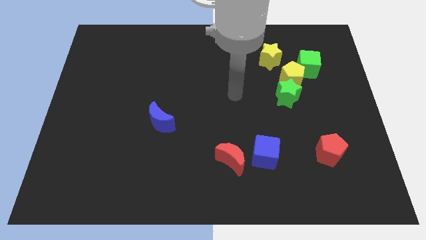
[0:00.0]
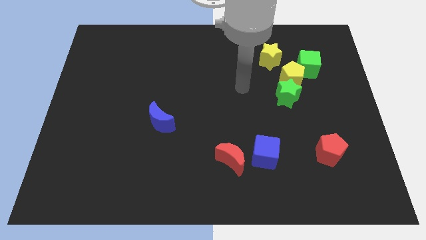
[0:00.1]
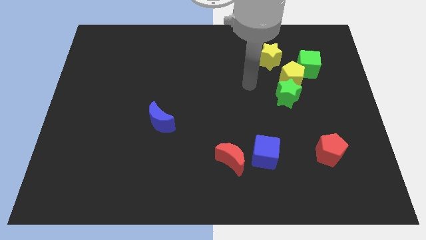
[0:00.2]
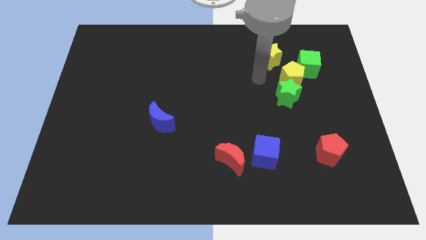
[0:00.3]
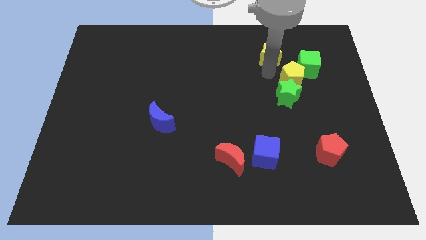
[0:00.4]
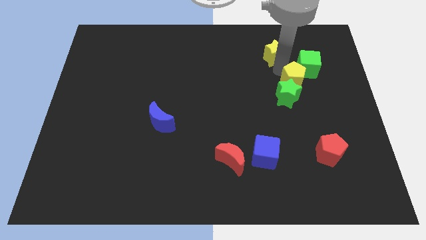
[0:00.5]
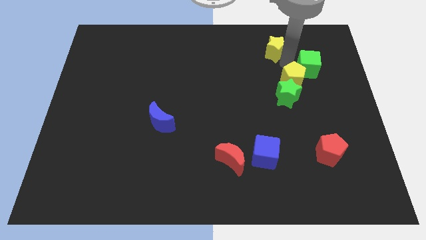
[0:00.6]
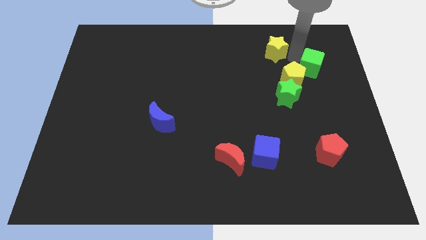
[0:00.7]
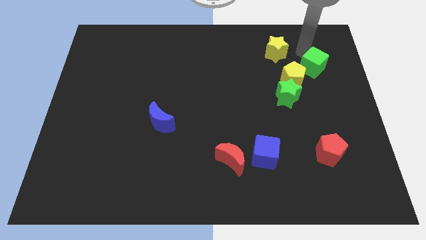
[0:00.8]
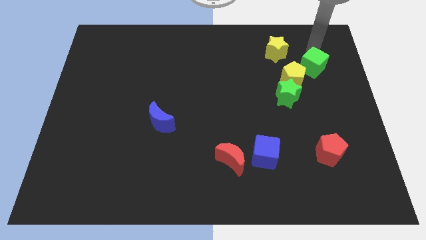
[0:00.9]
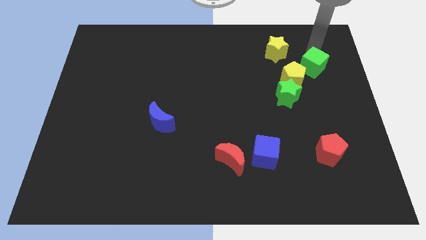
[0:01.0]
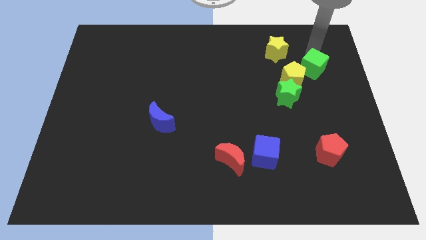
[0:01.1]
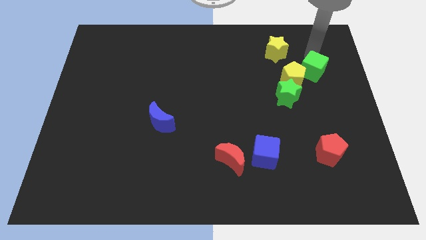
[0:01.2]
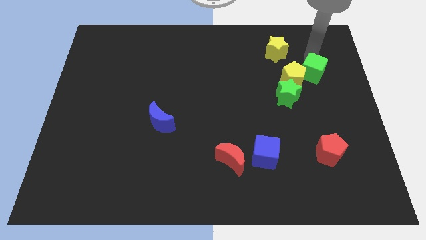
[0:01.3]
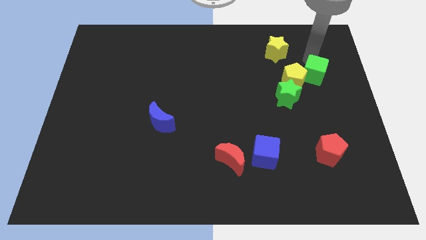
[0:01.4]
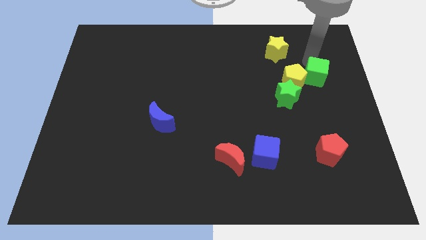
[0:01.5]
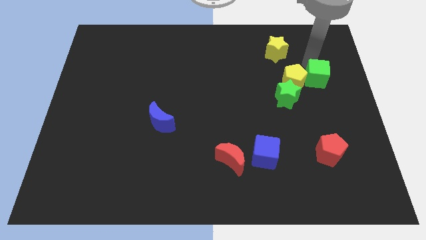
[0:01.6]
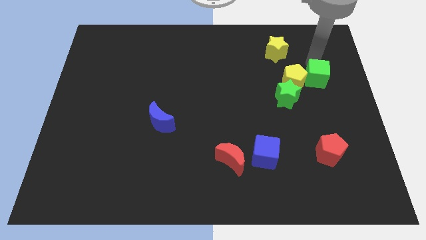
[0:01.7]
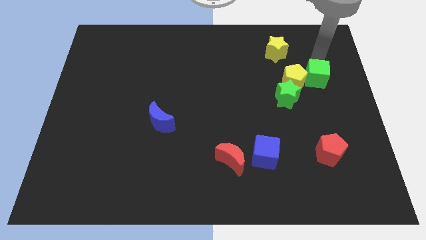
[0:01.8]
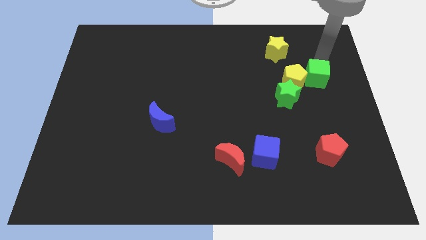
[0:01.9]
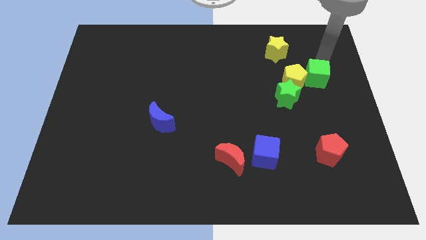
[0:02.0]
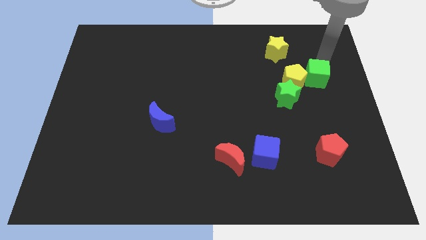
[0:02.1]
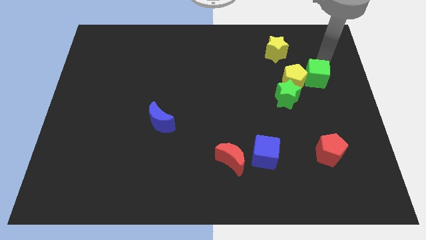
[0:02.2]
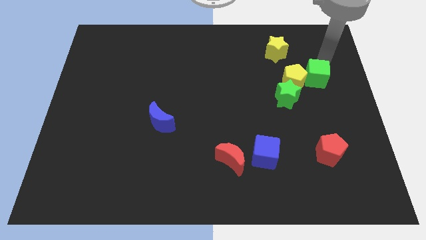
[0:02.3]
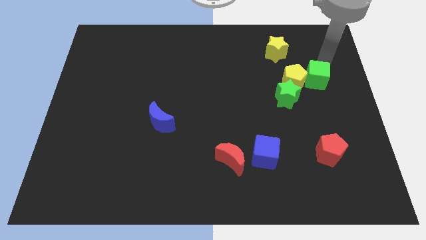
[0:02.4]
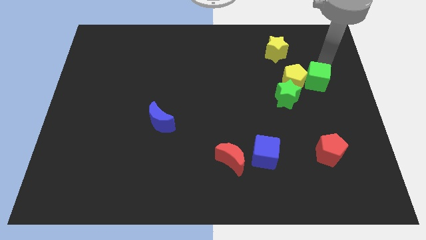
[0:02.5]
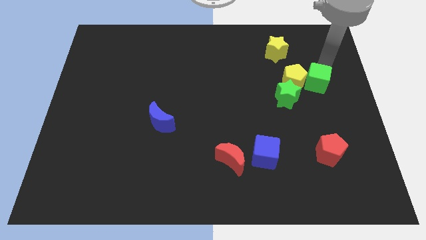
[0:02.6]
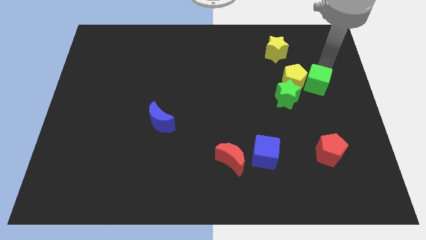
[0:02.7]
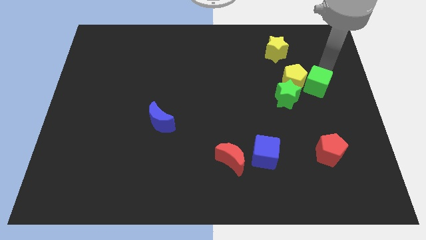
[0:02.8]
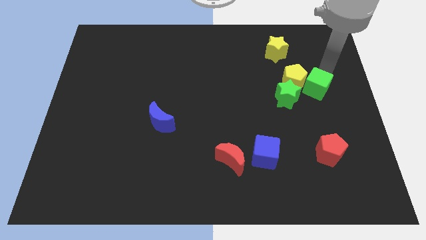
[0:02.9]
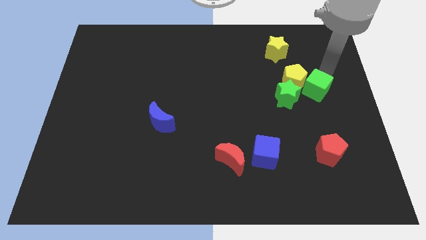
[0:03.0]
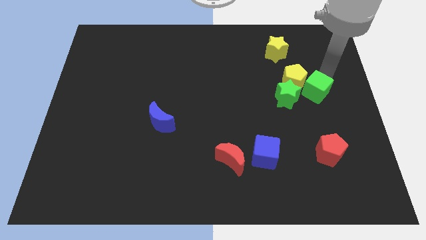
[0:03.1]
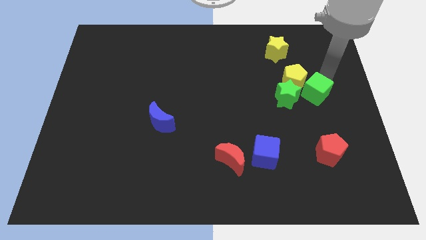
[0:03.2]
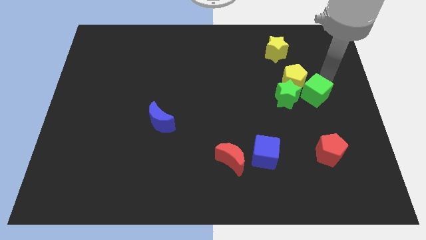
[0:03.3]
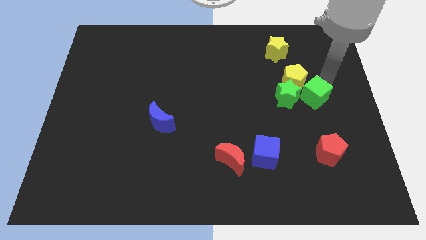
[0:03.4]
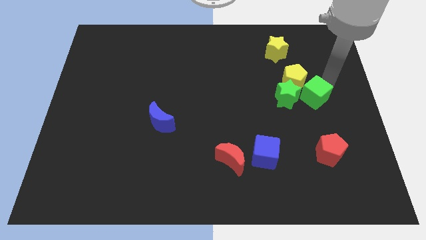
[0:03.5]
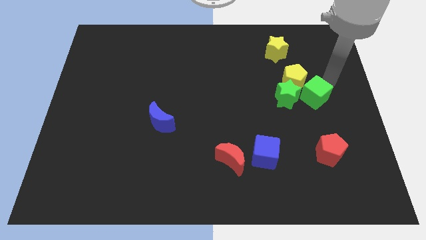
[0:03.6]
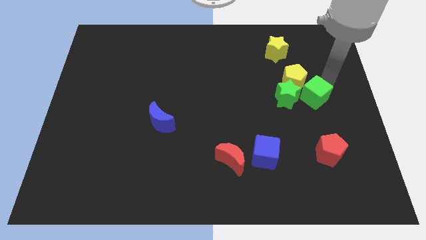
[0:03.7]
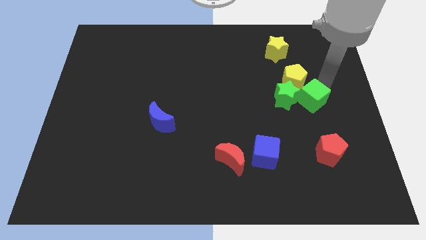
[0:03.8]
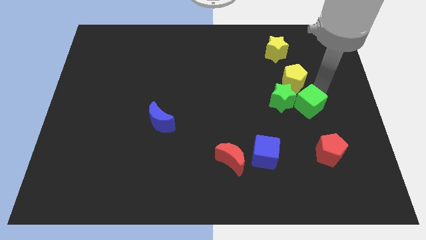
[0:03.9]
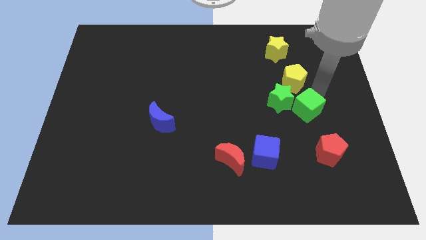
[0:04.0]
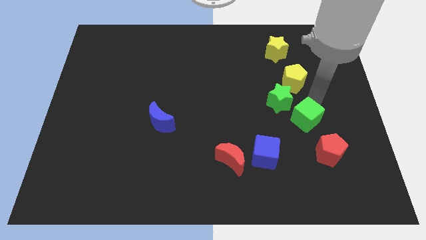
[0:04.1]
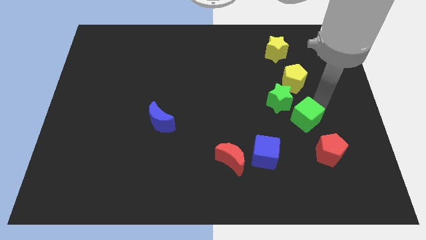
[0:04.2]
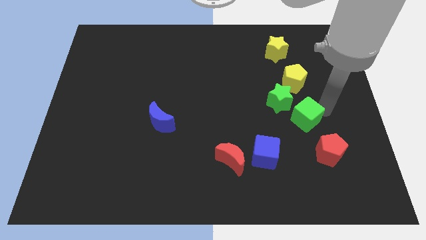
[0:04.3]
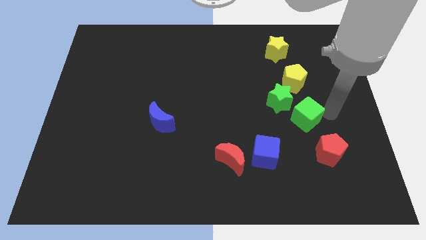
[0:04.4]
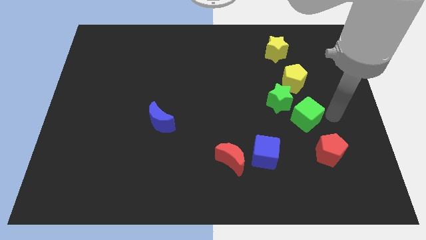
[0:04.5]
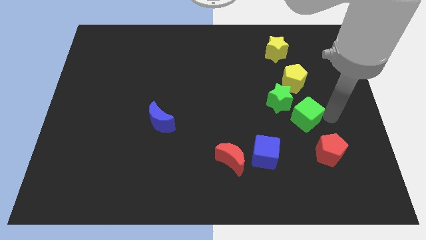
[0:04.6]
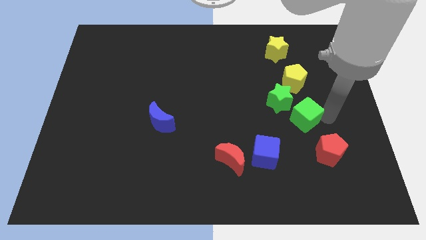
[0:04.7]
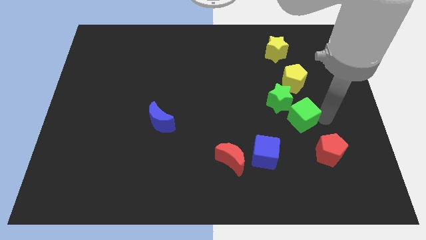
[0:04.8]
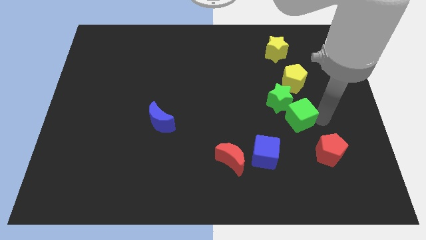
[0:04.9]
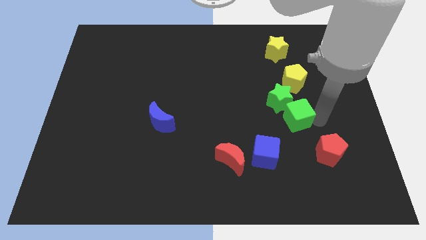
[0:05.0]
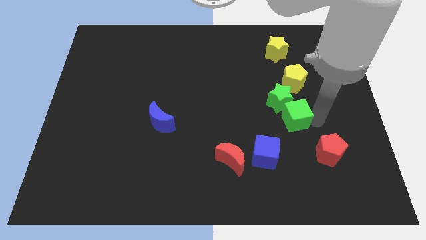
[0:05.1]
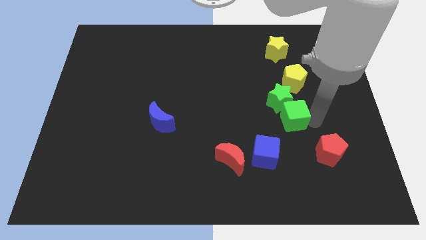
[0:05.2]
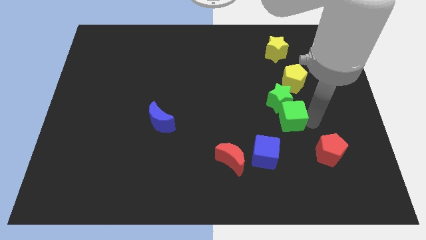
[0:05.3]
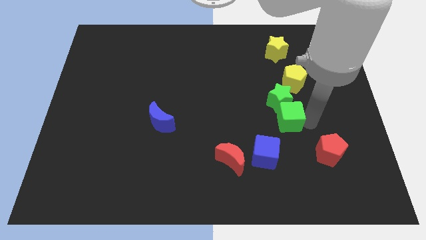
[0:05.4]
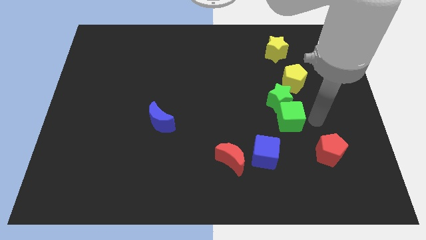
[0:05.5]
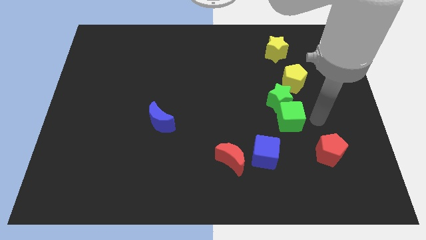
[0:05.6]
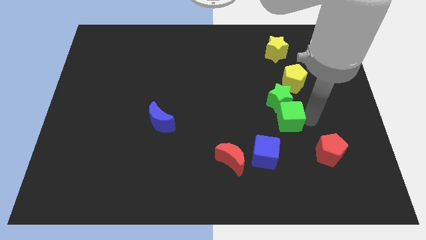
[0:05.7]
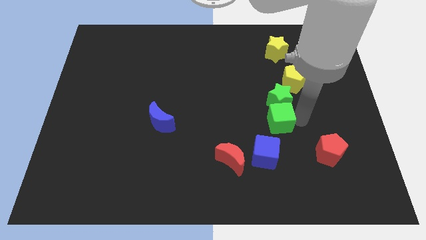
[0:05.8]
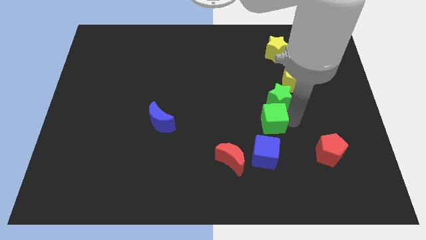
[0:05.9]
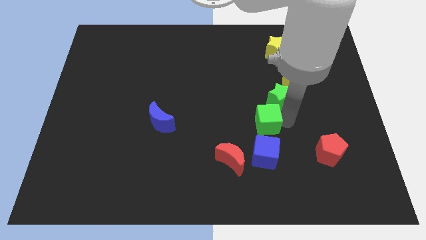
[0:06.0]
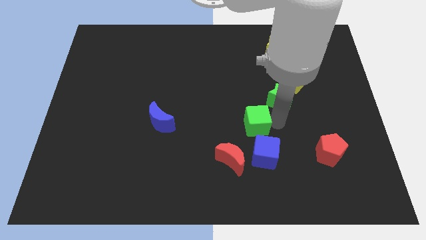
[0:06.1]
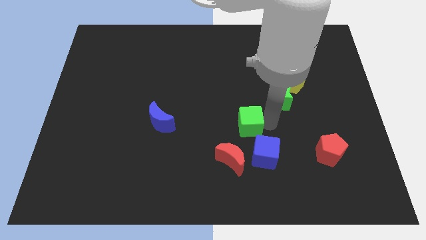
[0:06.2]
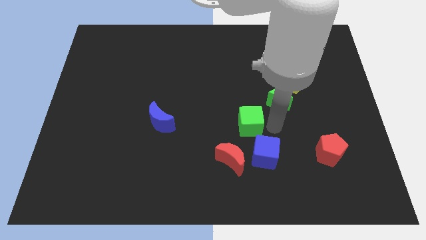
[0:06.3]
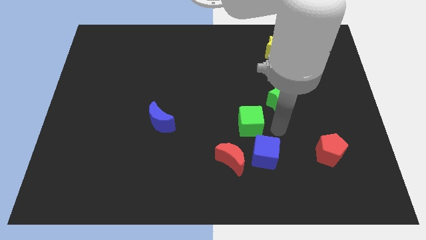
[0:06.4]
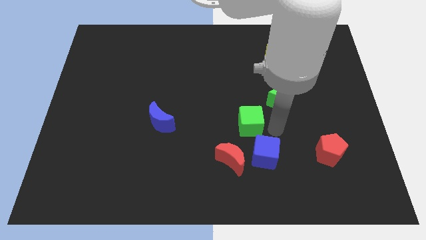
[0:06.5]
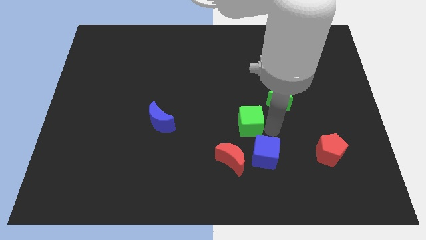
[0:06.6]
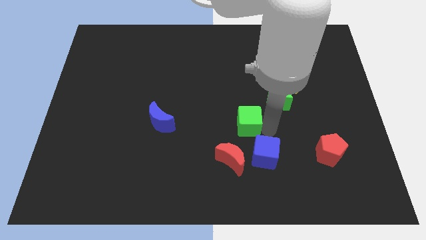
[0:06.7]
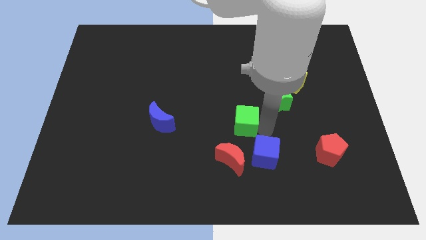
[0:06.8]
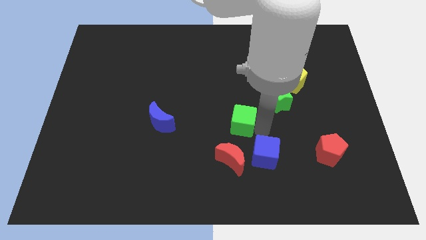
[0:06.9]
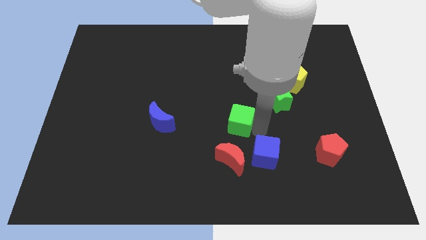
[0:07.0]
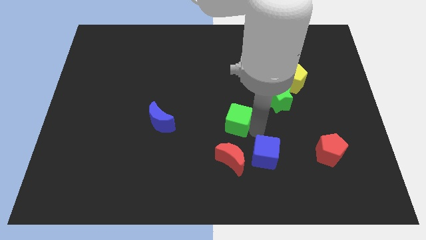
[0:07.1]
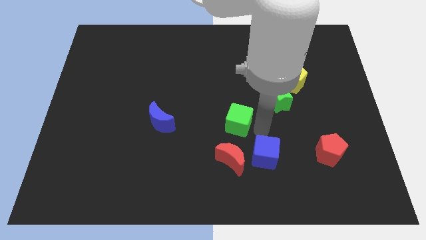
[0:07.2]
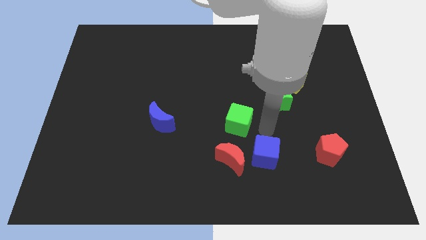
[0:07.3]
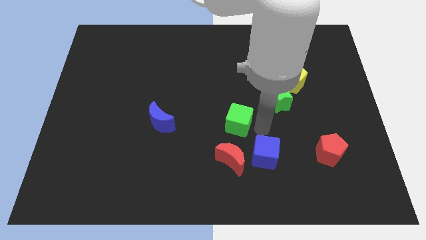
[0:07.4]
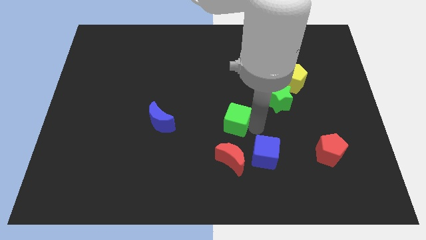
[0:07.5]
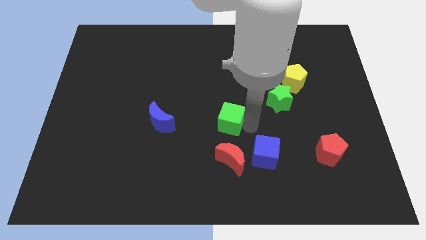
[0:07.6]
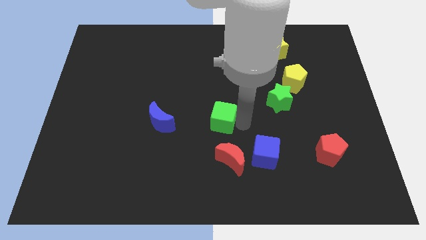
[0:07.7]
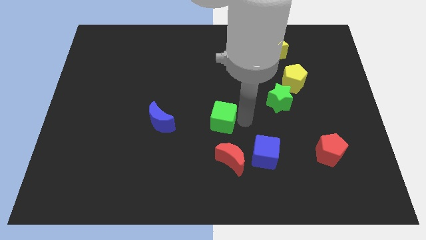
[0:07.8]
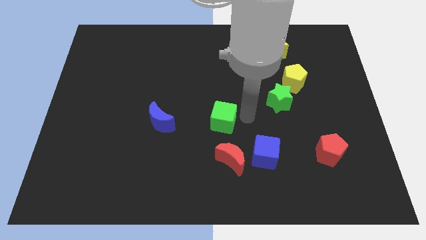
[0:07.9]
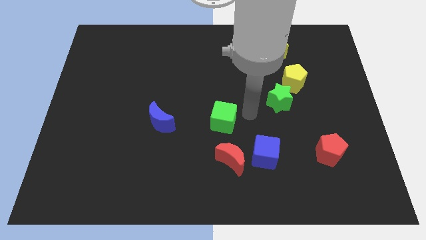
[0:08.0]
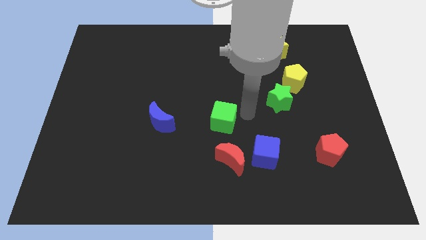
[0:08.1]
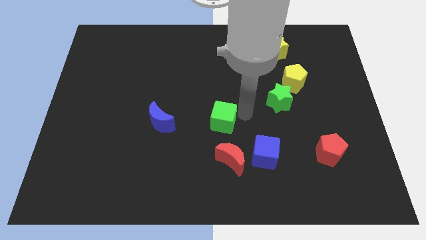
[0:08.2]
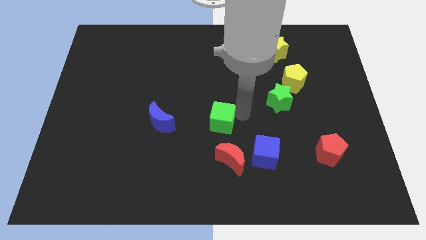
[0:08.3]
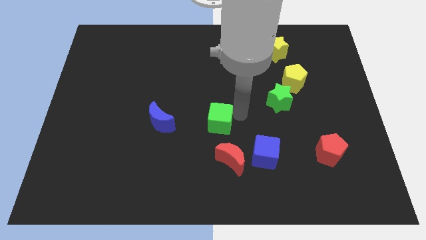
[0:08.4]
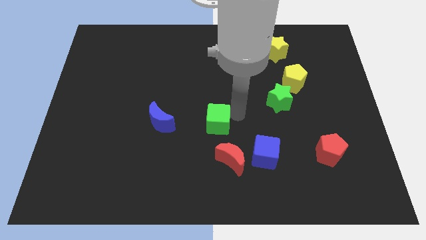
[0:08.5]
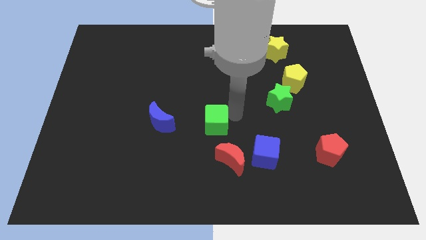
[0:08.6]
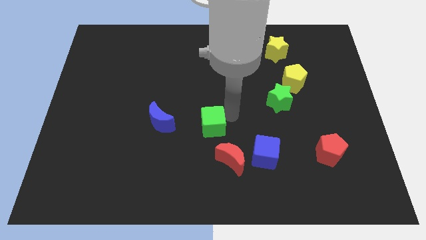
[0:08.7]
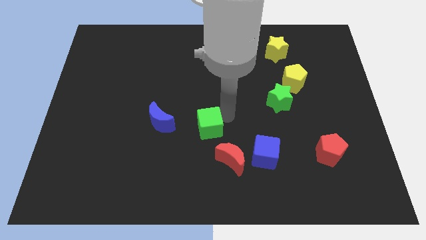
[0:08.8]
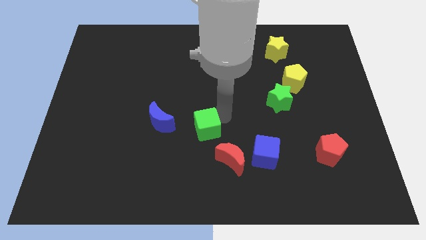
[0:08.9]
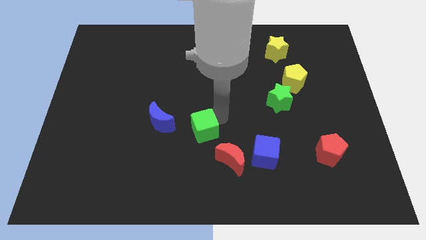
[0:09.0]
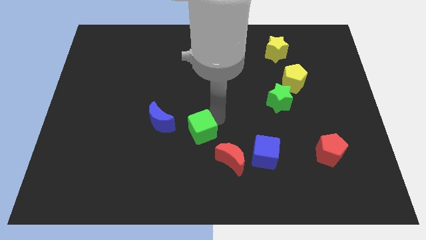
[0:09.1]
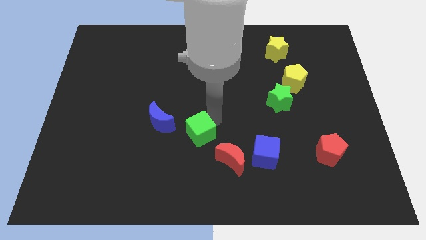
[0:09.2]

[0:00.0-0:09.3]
push the green cube to the bottom right side of the blue moon
